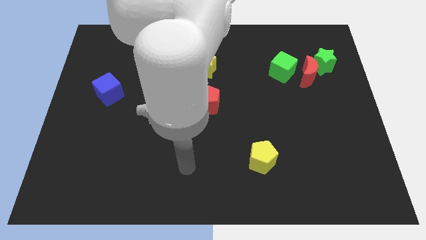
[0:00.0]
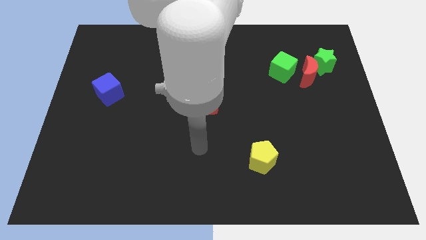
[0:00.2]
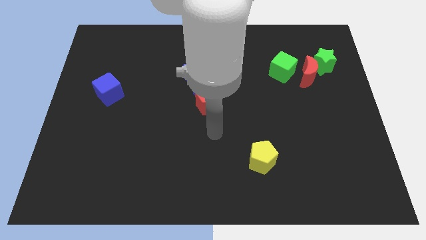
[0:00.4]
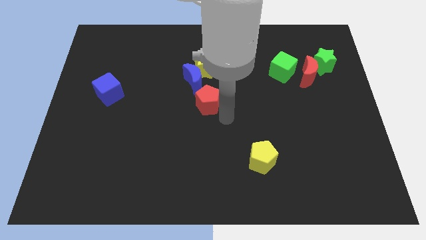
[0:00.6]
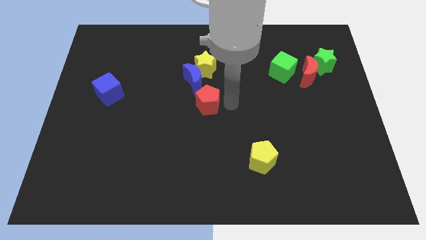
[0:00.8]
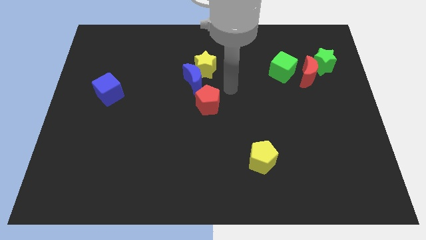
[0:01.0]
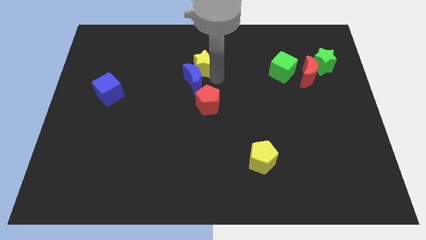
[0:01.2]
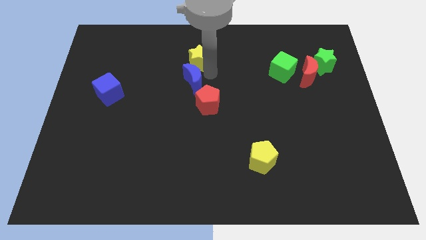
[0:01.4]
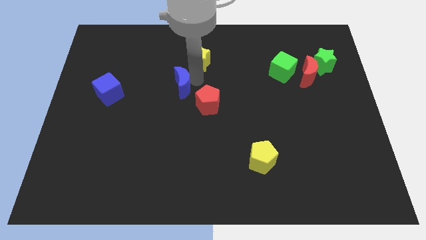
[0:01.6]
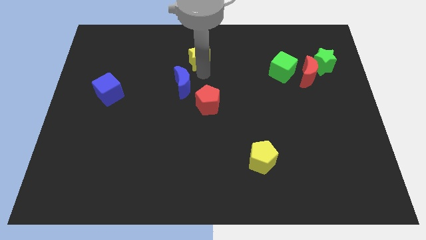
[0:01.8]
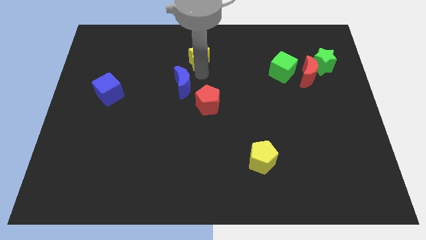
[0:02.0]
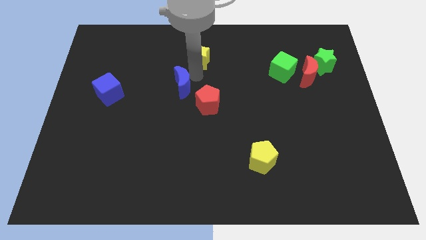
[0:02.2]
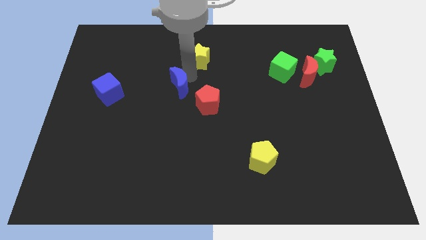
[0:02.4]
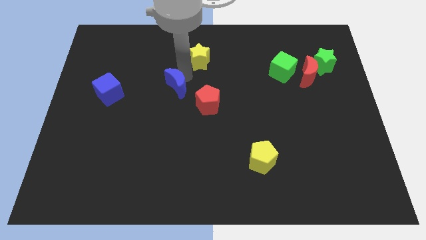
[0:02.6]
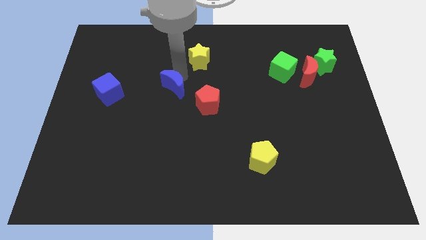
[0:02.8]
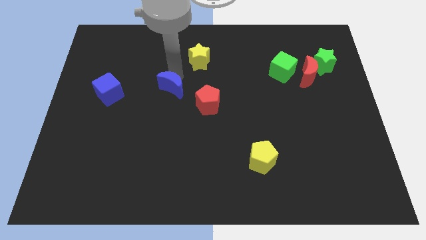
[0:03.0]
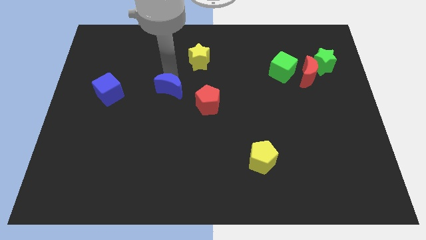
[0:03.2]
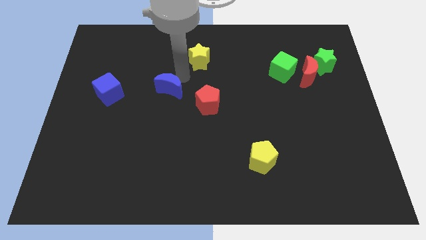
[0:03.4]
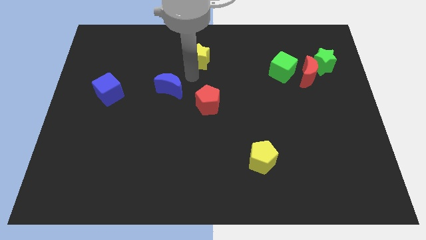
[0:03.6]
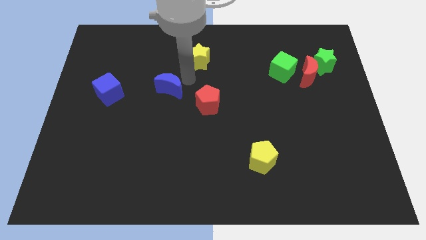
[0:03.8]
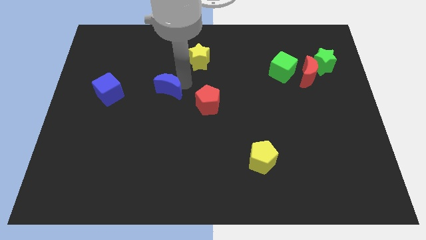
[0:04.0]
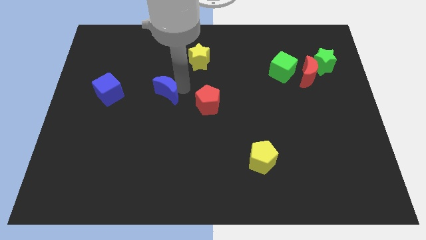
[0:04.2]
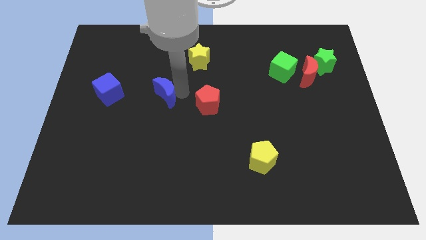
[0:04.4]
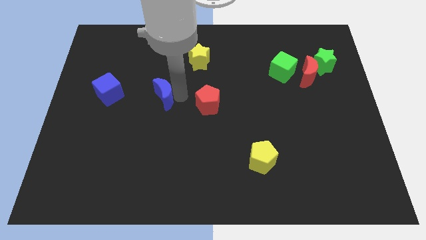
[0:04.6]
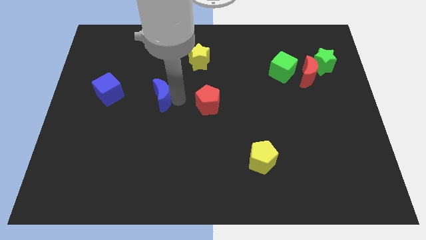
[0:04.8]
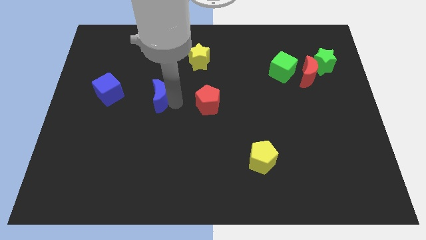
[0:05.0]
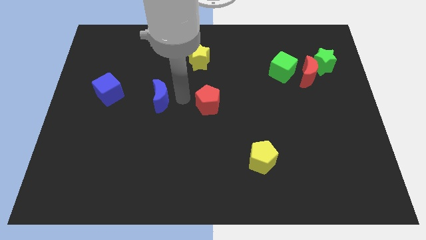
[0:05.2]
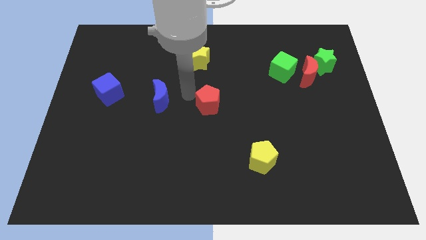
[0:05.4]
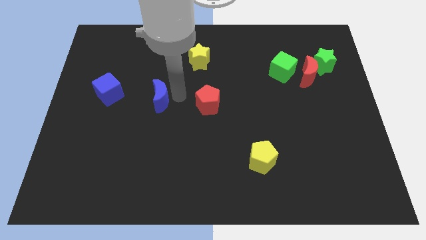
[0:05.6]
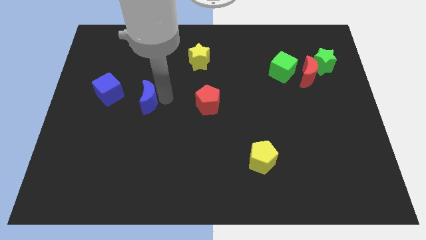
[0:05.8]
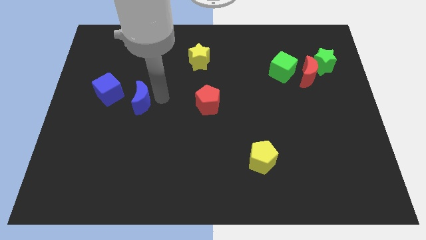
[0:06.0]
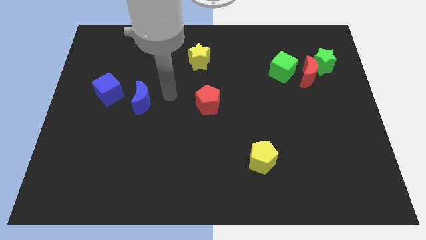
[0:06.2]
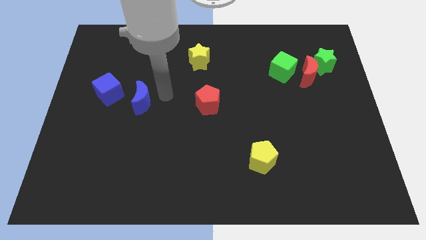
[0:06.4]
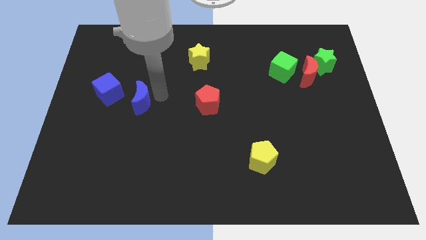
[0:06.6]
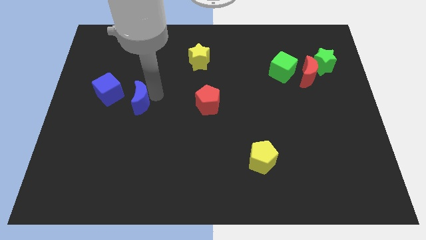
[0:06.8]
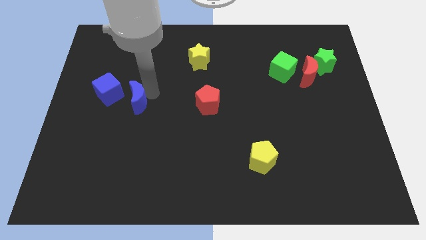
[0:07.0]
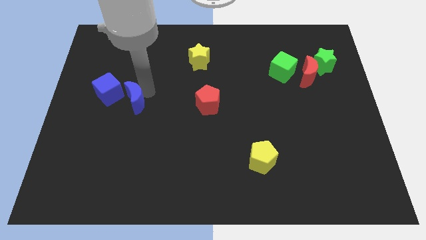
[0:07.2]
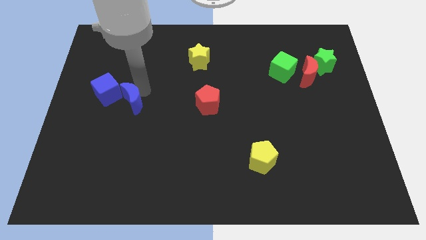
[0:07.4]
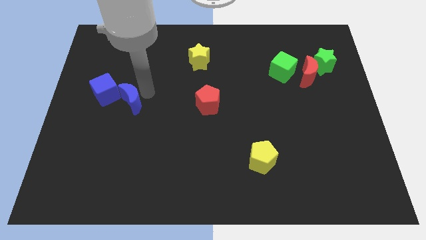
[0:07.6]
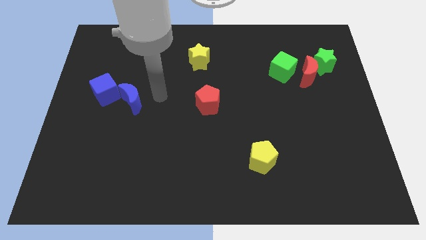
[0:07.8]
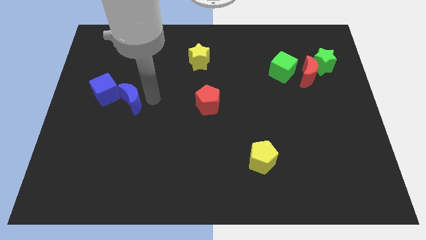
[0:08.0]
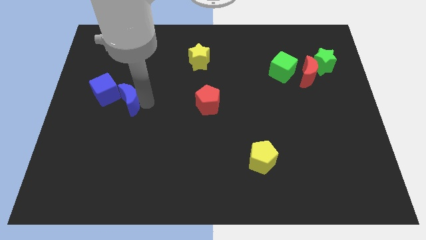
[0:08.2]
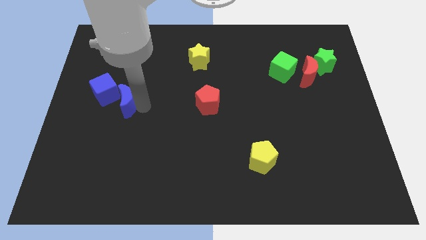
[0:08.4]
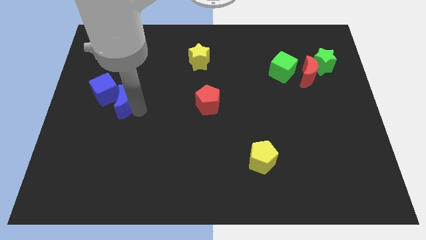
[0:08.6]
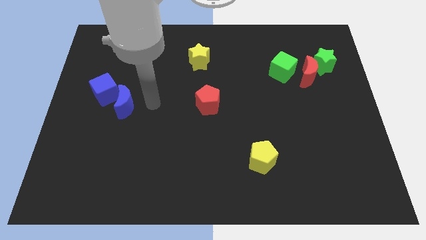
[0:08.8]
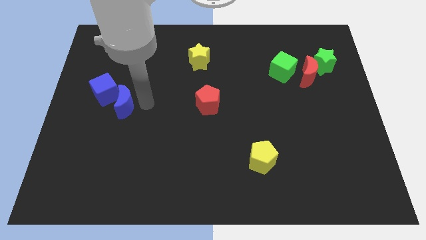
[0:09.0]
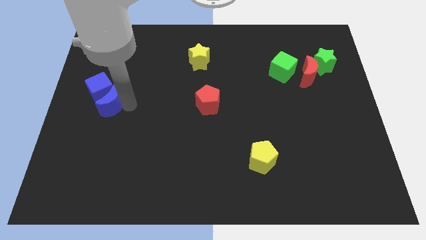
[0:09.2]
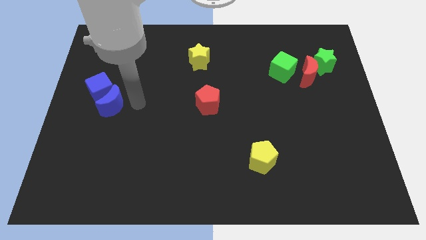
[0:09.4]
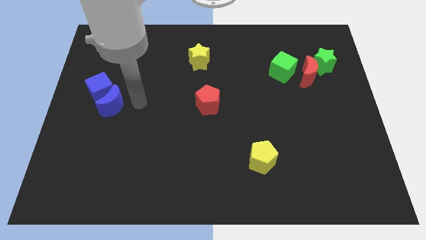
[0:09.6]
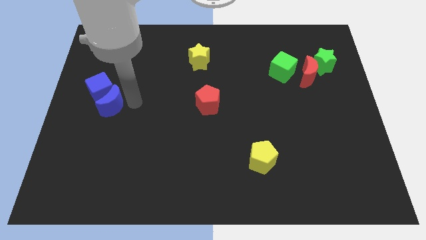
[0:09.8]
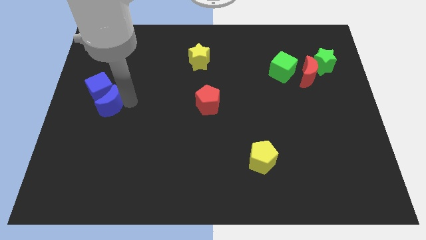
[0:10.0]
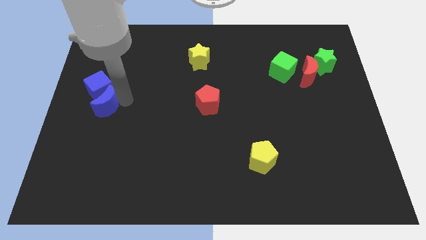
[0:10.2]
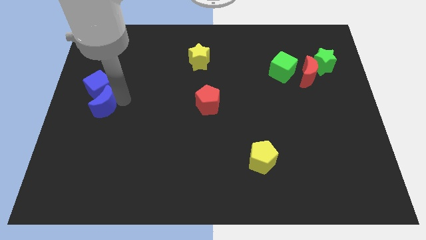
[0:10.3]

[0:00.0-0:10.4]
move the blue moon to the center left
